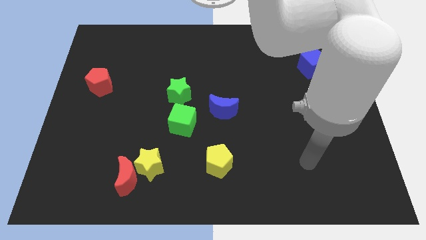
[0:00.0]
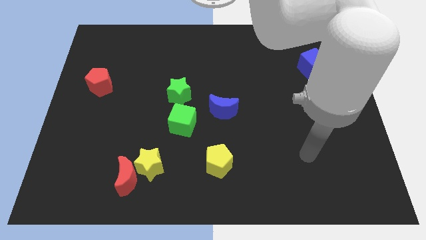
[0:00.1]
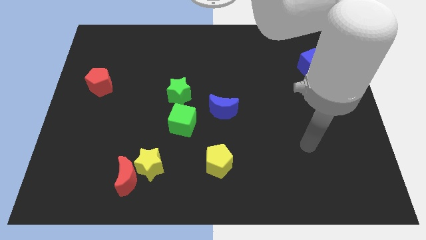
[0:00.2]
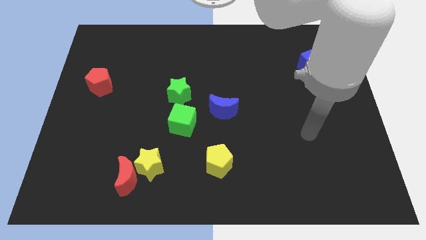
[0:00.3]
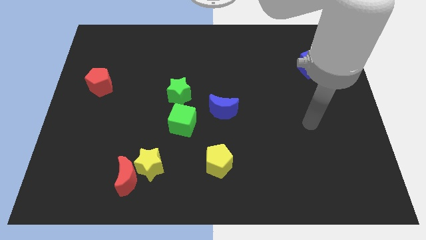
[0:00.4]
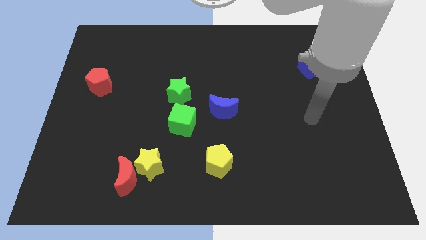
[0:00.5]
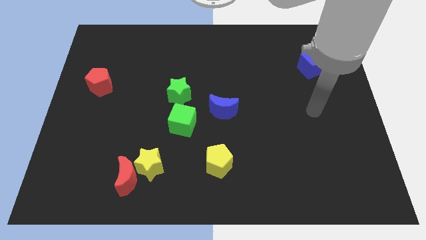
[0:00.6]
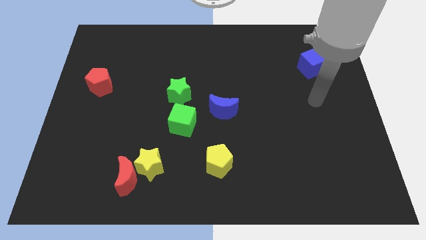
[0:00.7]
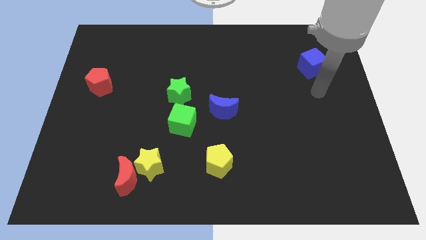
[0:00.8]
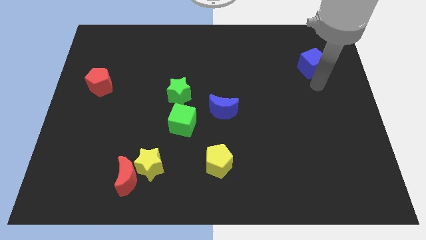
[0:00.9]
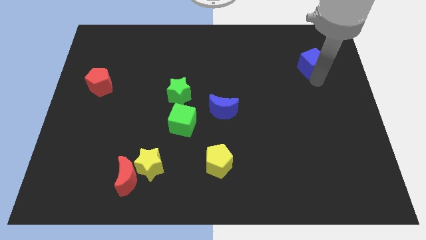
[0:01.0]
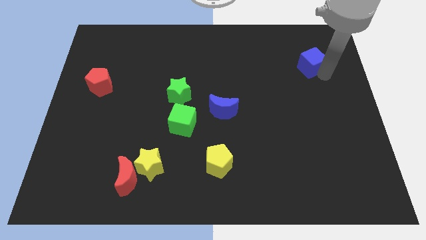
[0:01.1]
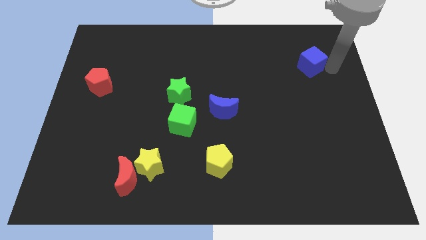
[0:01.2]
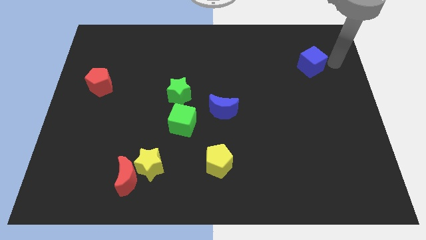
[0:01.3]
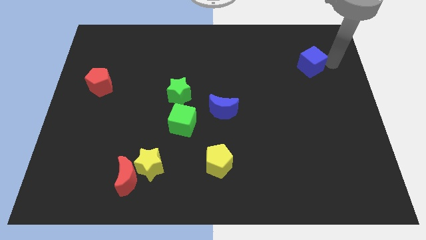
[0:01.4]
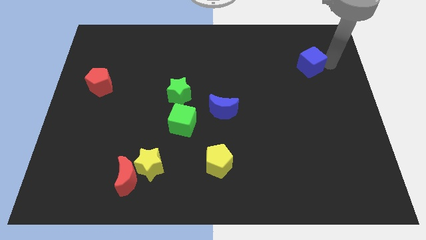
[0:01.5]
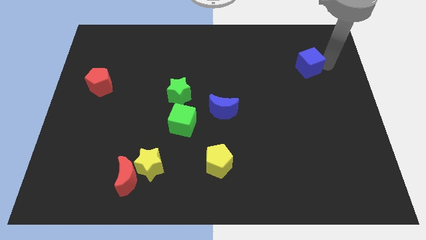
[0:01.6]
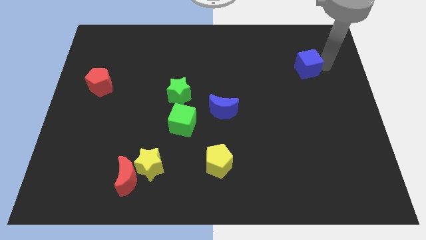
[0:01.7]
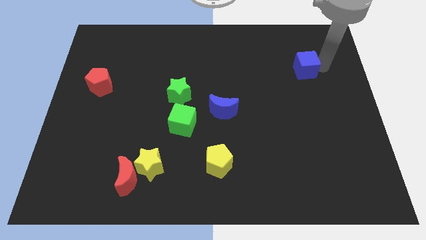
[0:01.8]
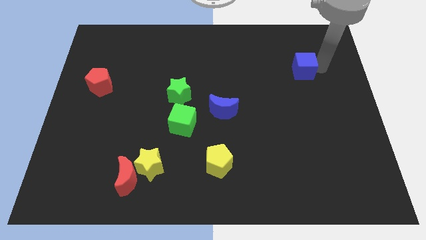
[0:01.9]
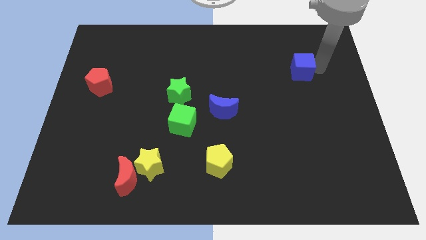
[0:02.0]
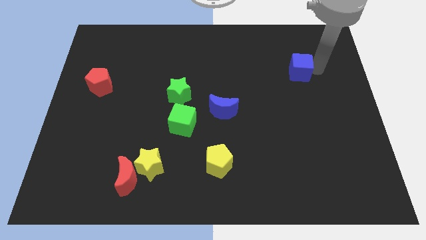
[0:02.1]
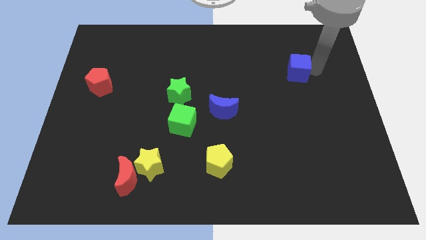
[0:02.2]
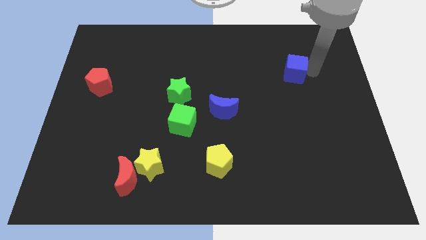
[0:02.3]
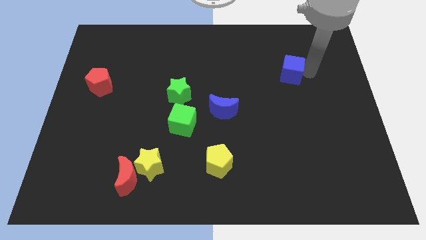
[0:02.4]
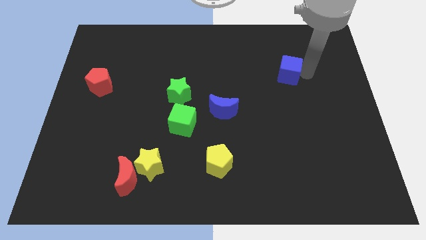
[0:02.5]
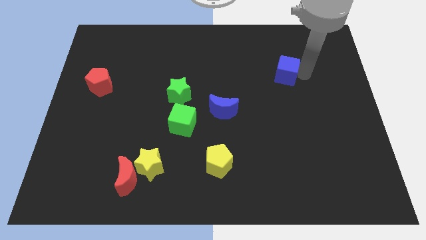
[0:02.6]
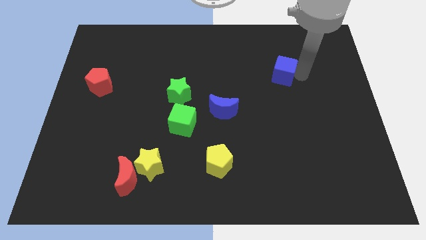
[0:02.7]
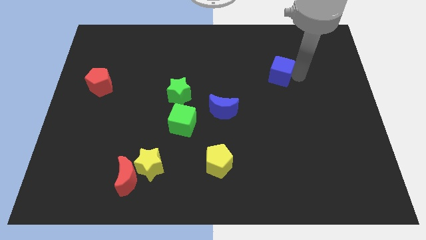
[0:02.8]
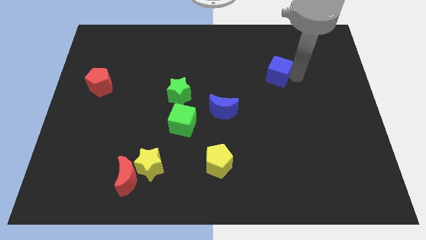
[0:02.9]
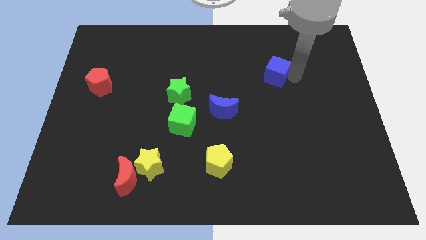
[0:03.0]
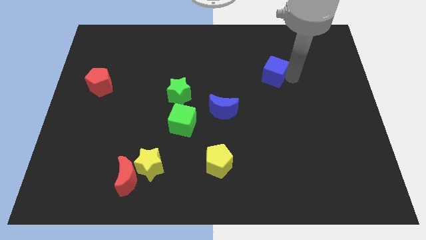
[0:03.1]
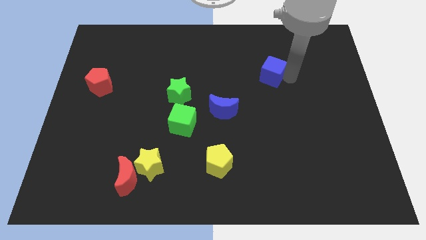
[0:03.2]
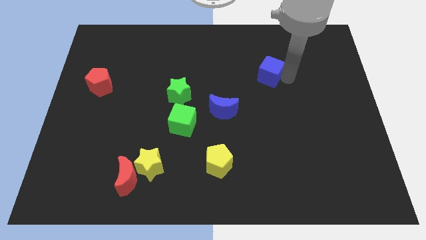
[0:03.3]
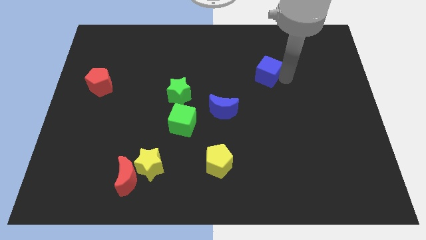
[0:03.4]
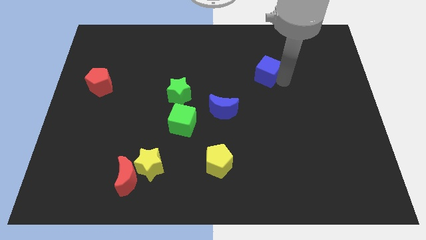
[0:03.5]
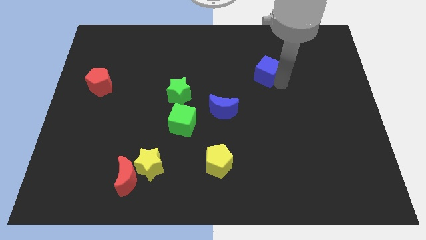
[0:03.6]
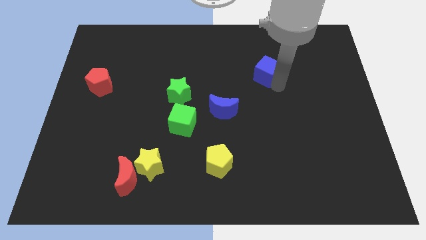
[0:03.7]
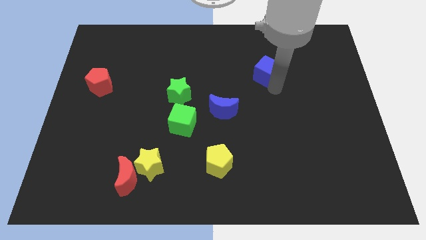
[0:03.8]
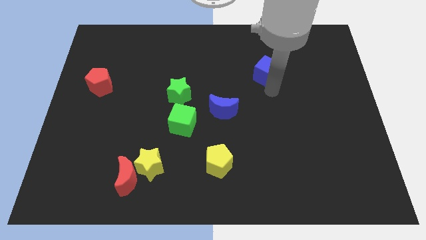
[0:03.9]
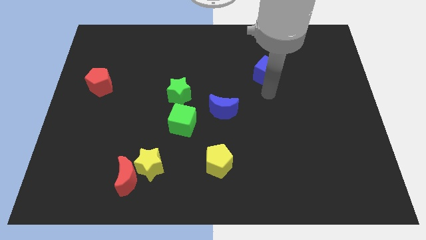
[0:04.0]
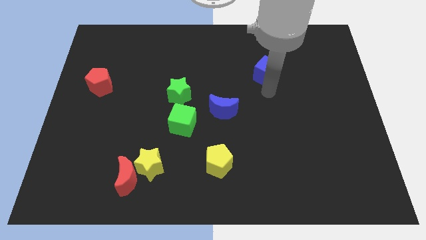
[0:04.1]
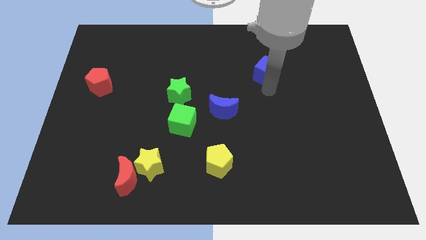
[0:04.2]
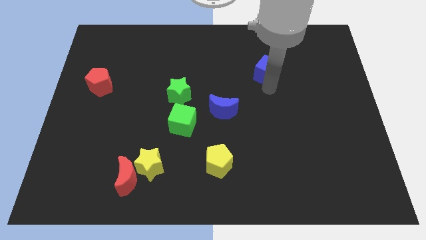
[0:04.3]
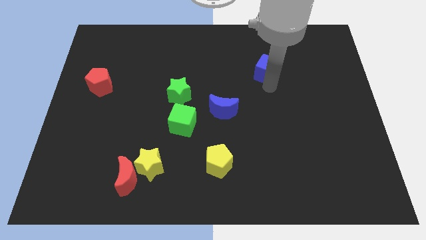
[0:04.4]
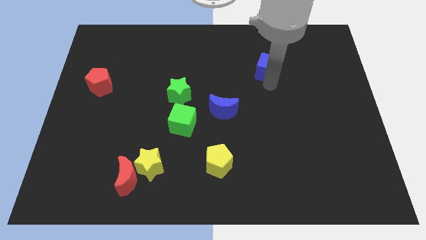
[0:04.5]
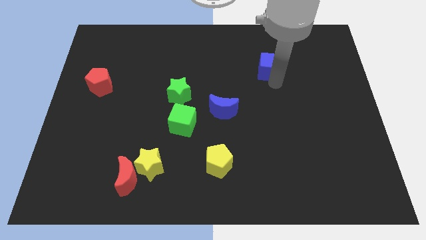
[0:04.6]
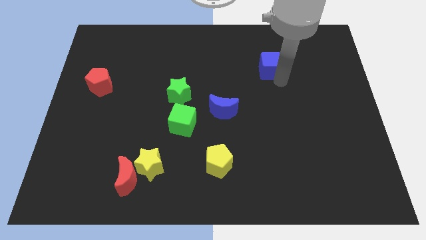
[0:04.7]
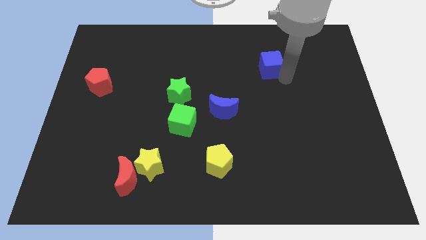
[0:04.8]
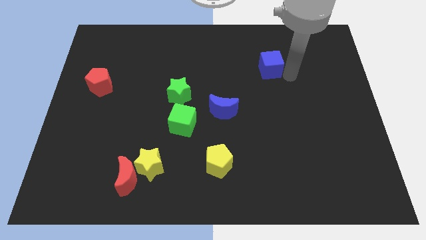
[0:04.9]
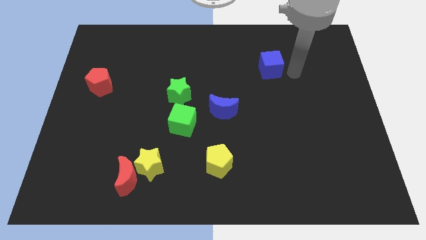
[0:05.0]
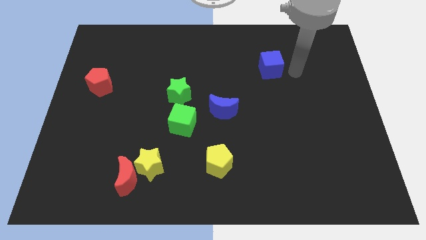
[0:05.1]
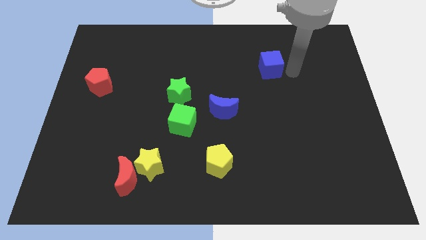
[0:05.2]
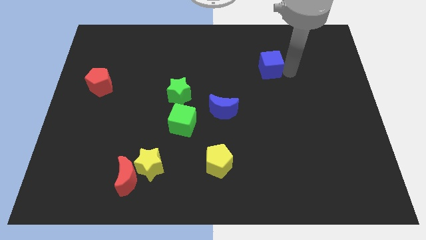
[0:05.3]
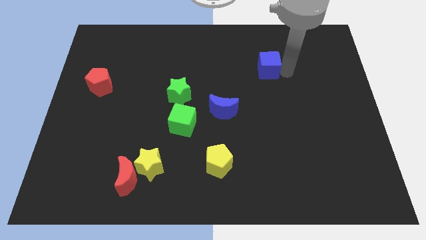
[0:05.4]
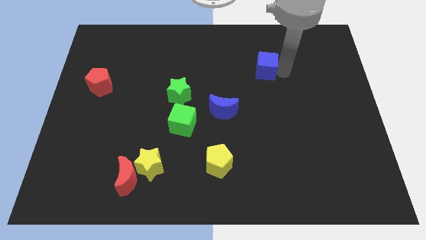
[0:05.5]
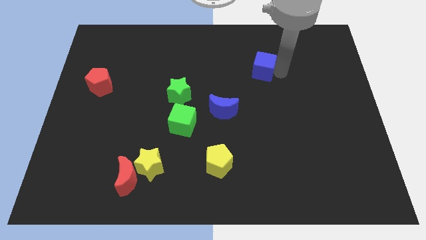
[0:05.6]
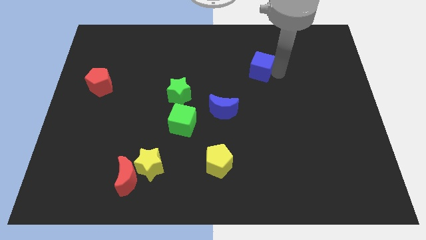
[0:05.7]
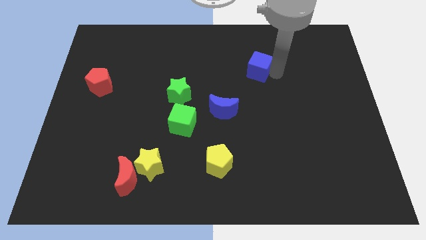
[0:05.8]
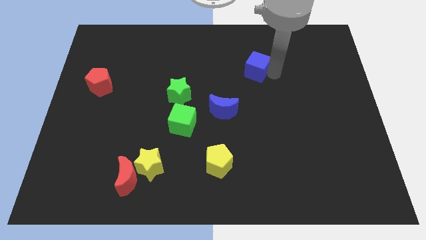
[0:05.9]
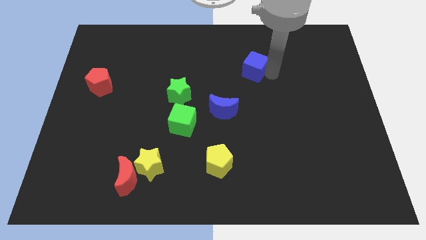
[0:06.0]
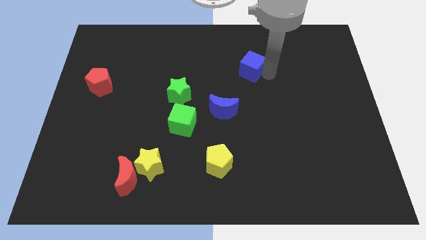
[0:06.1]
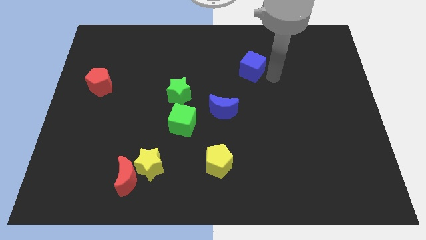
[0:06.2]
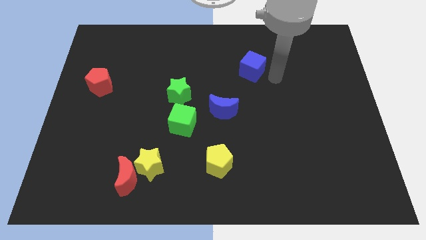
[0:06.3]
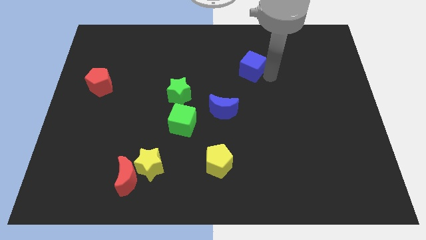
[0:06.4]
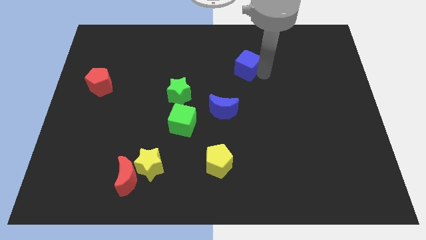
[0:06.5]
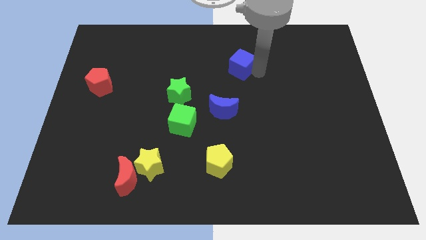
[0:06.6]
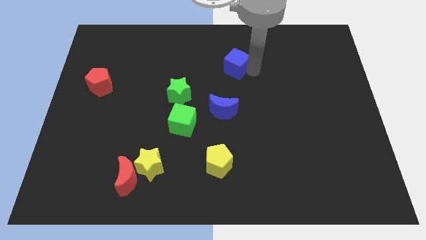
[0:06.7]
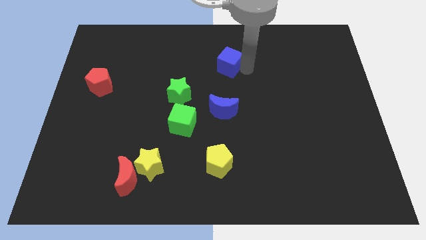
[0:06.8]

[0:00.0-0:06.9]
move the blue cube left

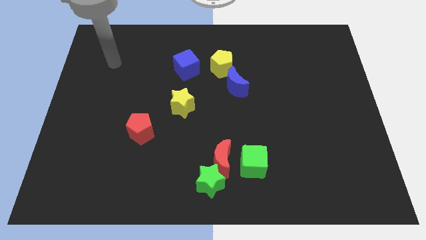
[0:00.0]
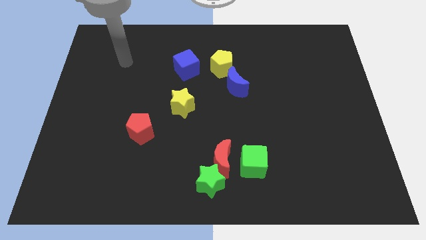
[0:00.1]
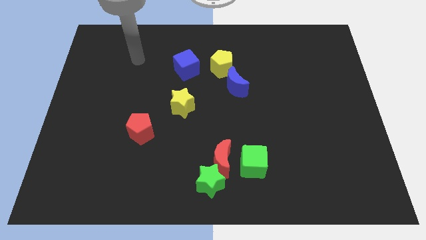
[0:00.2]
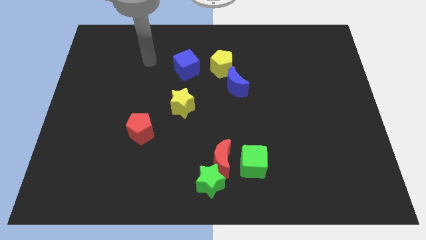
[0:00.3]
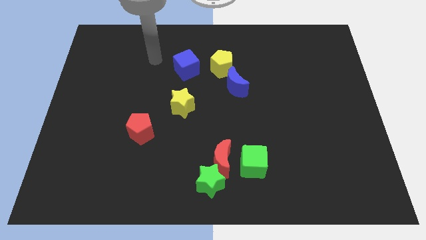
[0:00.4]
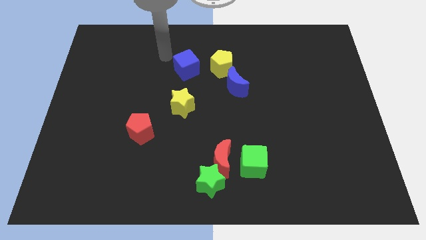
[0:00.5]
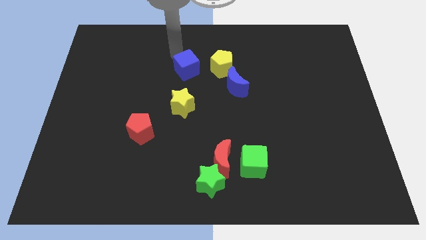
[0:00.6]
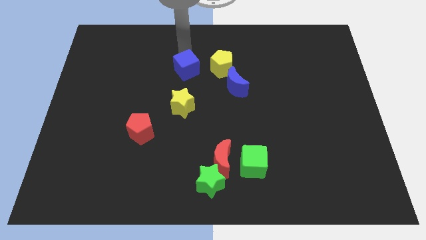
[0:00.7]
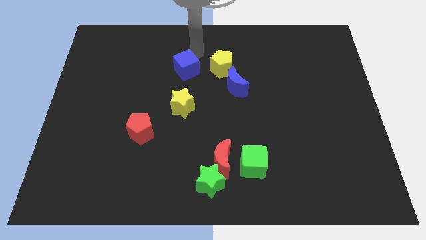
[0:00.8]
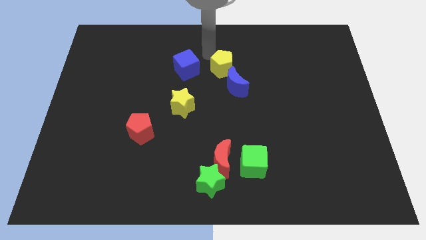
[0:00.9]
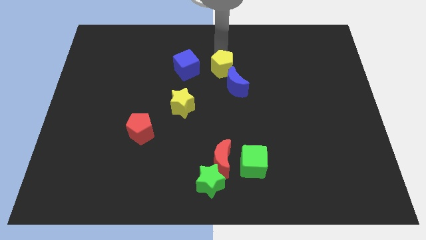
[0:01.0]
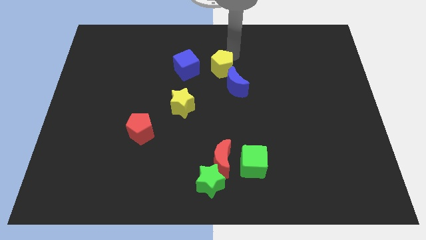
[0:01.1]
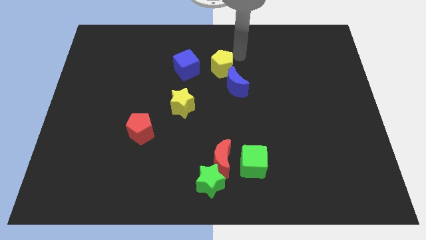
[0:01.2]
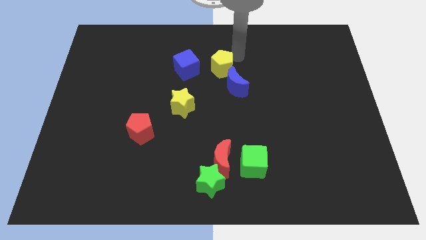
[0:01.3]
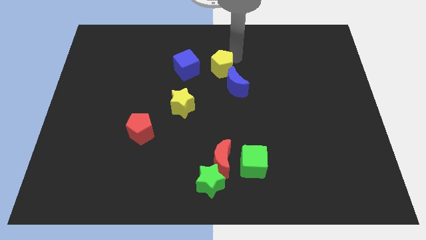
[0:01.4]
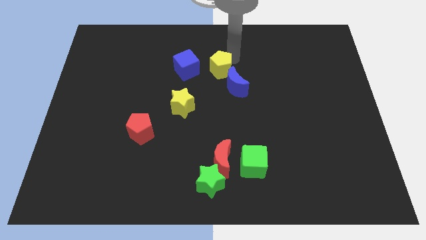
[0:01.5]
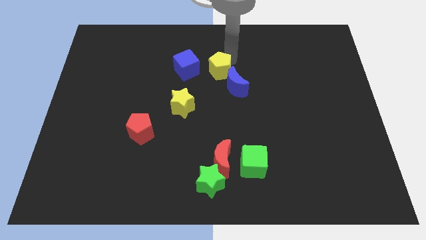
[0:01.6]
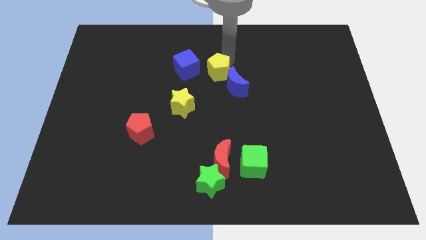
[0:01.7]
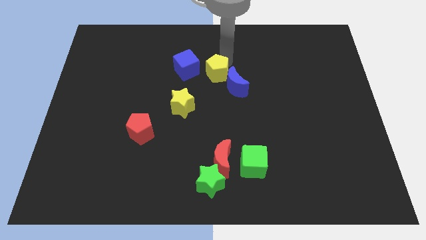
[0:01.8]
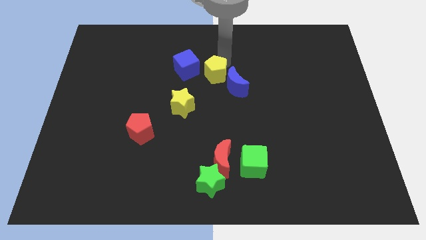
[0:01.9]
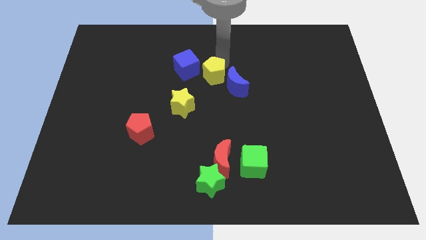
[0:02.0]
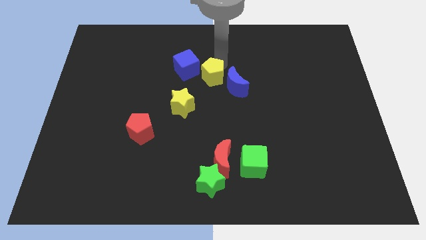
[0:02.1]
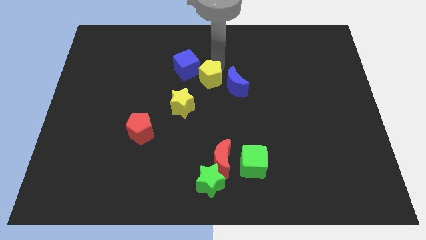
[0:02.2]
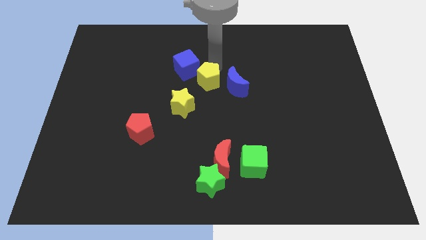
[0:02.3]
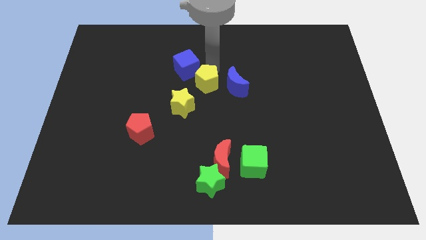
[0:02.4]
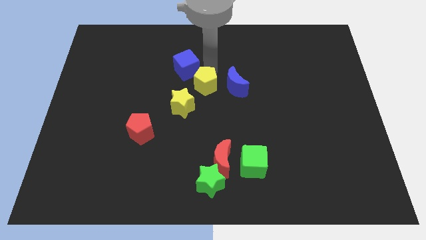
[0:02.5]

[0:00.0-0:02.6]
slide the yellow pentagon downwards and then left a little
